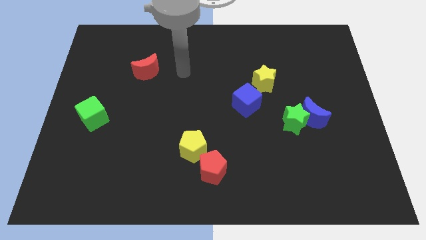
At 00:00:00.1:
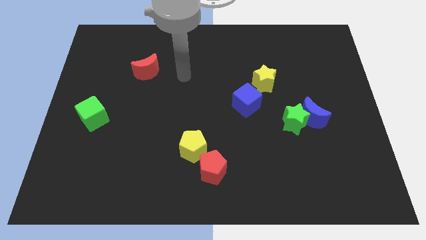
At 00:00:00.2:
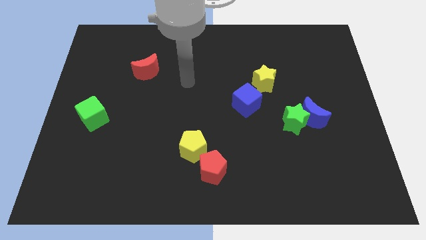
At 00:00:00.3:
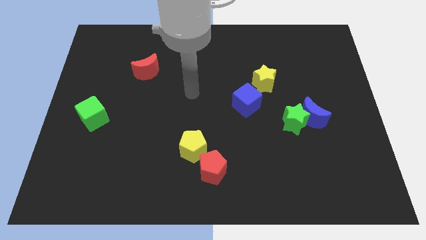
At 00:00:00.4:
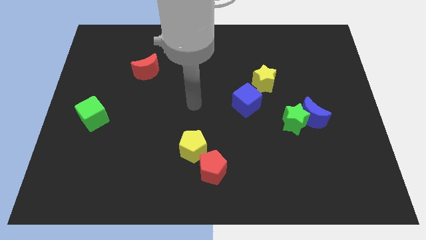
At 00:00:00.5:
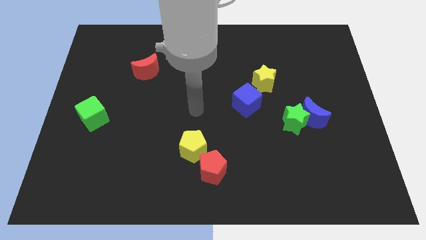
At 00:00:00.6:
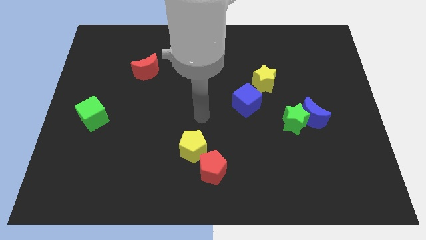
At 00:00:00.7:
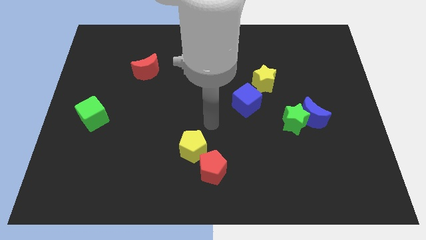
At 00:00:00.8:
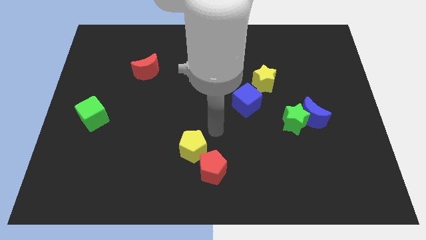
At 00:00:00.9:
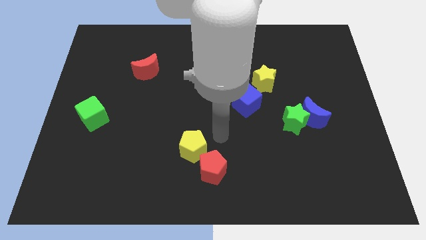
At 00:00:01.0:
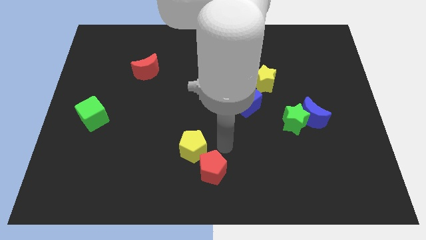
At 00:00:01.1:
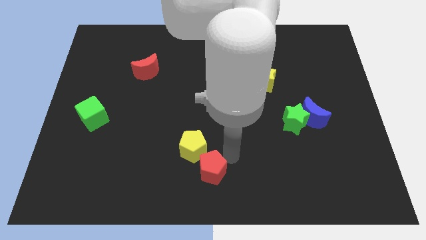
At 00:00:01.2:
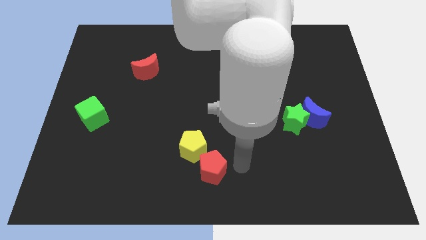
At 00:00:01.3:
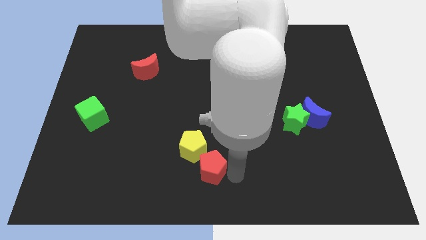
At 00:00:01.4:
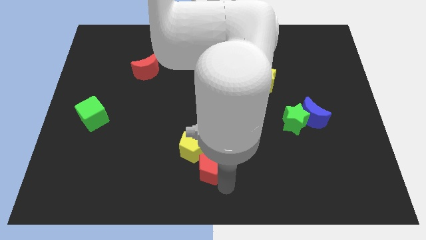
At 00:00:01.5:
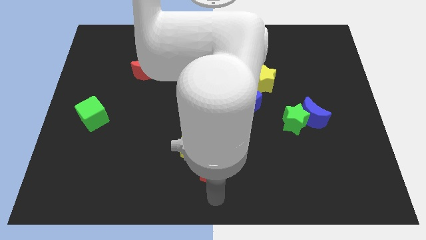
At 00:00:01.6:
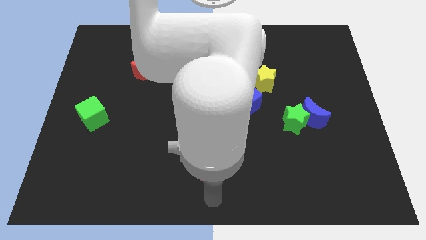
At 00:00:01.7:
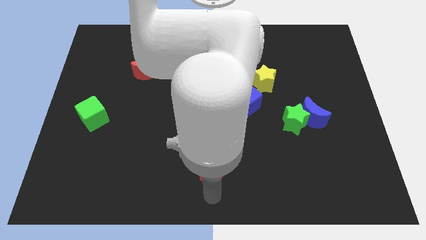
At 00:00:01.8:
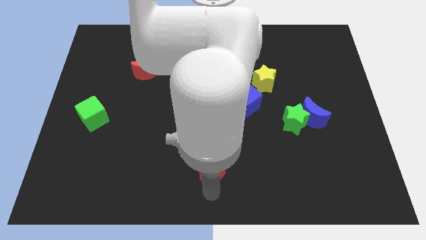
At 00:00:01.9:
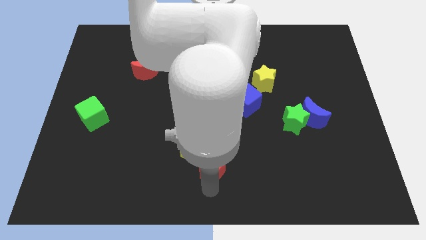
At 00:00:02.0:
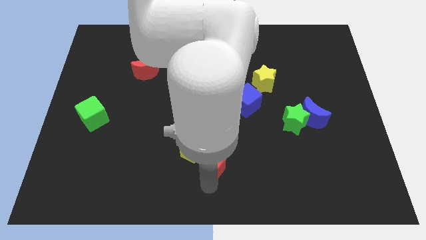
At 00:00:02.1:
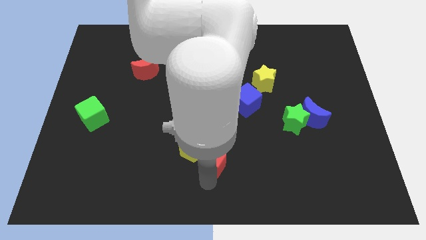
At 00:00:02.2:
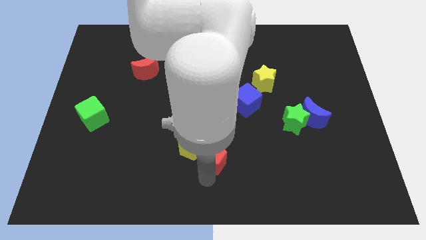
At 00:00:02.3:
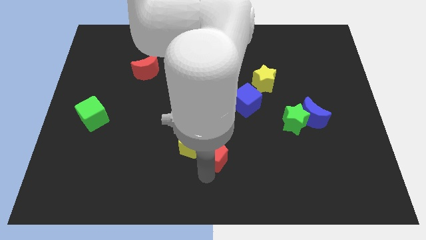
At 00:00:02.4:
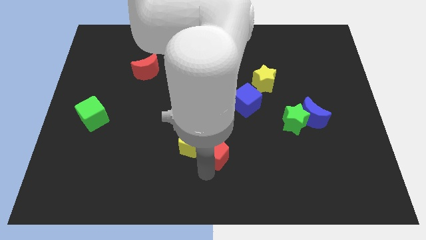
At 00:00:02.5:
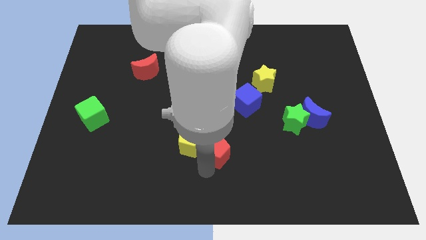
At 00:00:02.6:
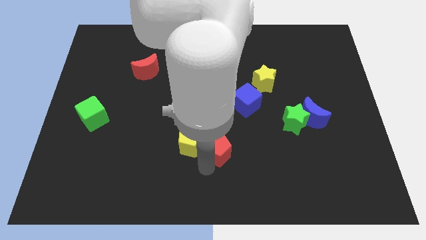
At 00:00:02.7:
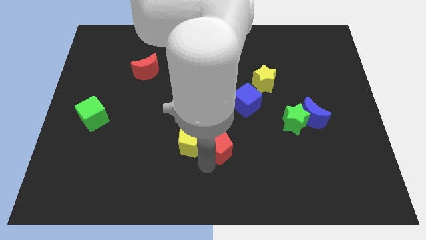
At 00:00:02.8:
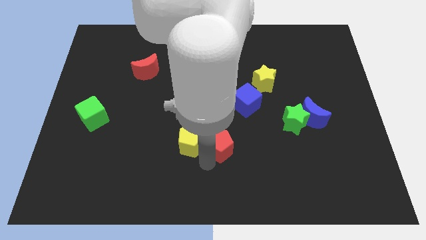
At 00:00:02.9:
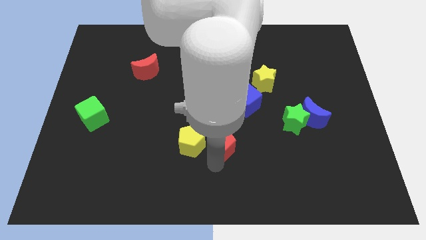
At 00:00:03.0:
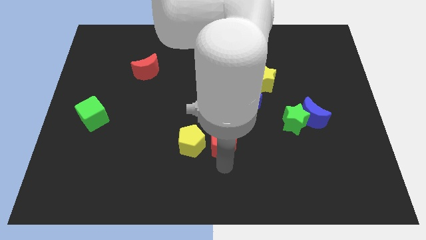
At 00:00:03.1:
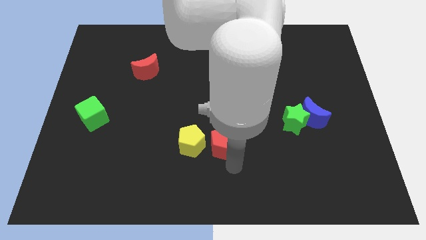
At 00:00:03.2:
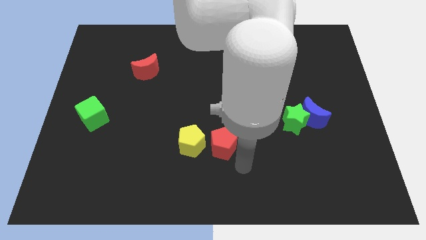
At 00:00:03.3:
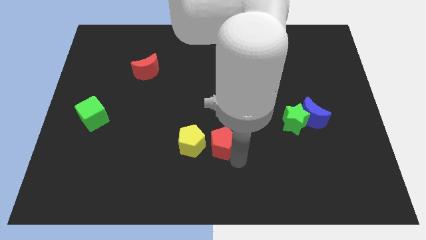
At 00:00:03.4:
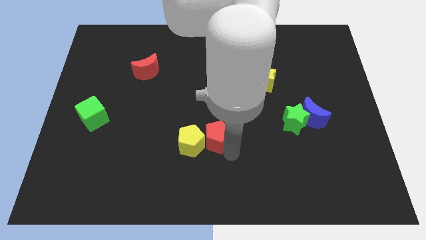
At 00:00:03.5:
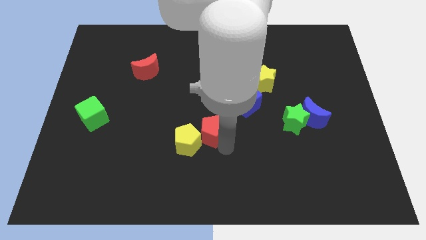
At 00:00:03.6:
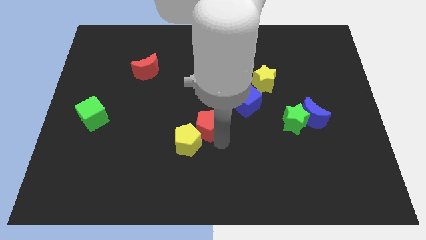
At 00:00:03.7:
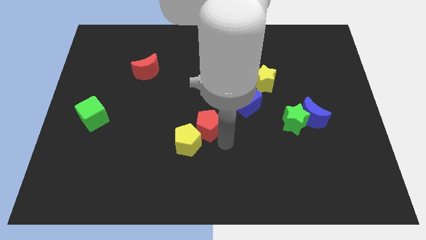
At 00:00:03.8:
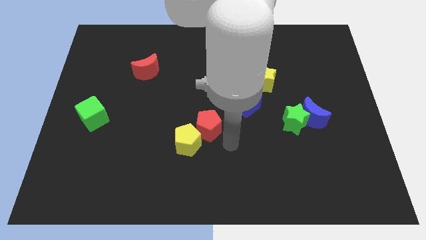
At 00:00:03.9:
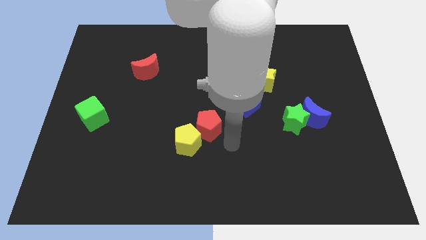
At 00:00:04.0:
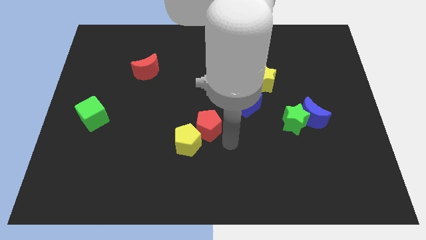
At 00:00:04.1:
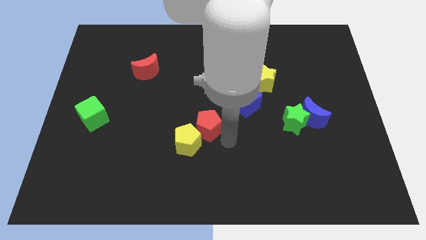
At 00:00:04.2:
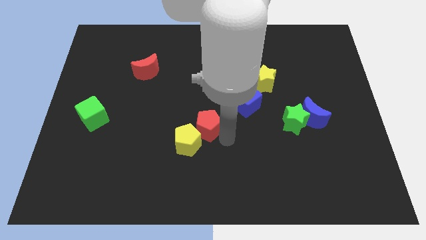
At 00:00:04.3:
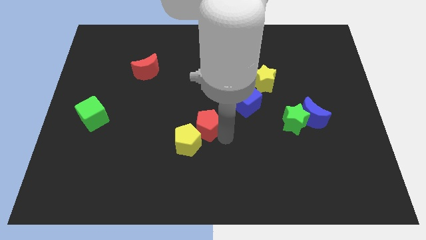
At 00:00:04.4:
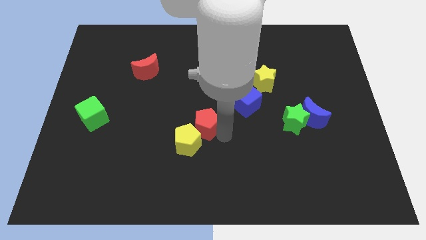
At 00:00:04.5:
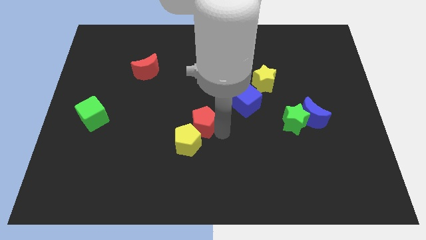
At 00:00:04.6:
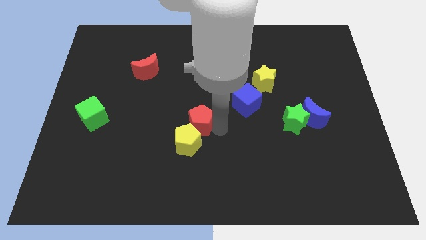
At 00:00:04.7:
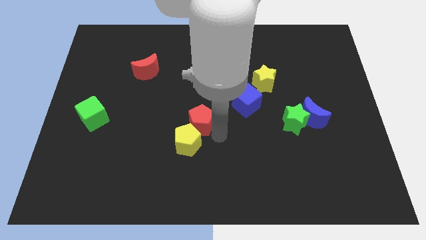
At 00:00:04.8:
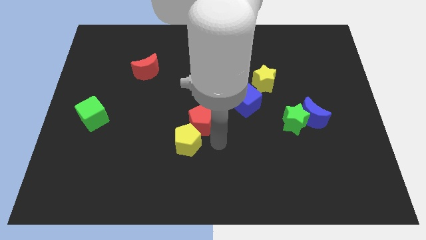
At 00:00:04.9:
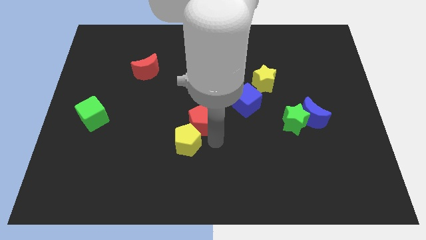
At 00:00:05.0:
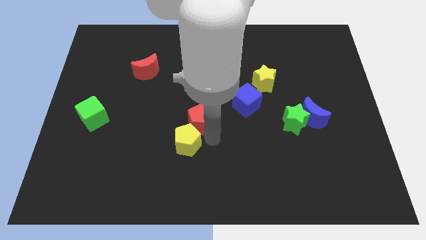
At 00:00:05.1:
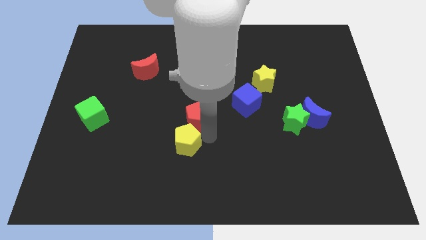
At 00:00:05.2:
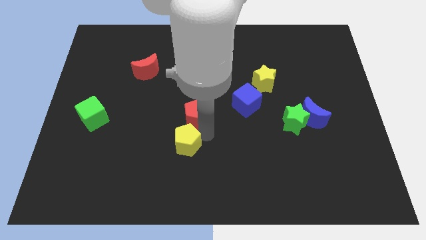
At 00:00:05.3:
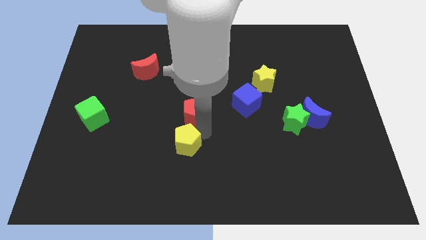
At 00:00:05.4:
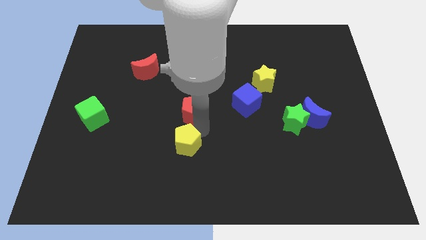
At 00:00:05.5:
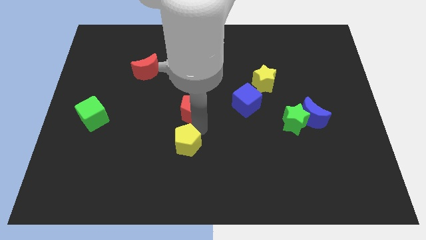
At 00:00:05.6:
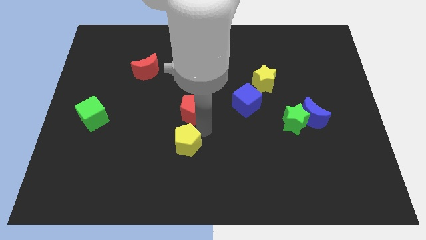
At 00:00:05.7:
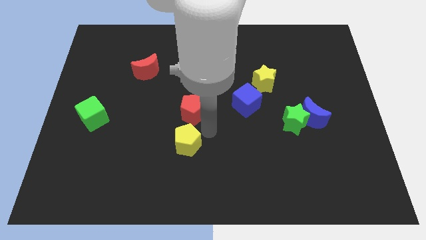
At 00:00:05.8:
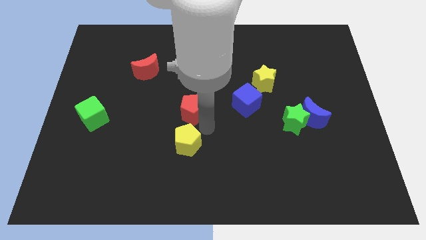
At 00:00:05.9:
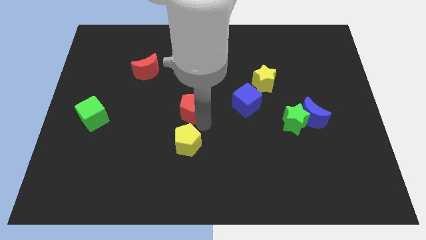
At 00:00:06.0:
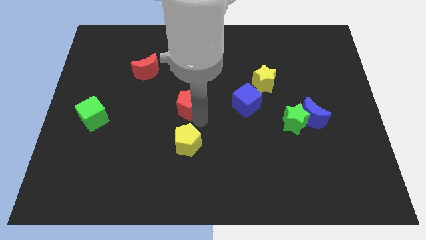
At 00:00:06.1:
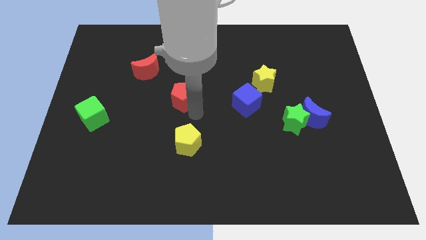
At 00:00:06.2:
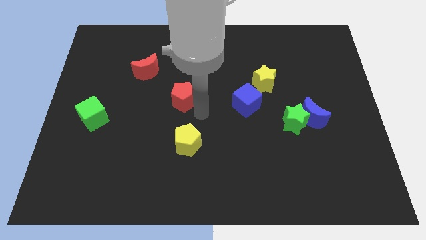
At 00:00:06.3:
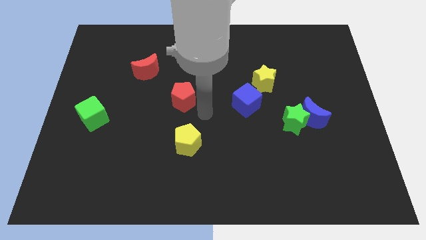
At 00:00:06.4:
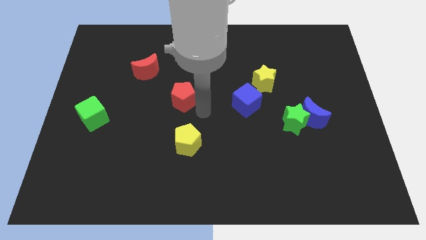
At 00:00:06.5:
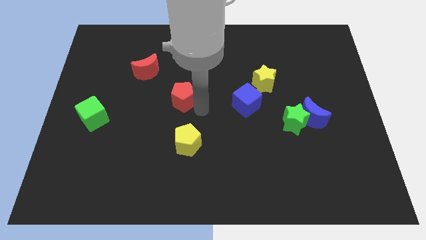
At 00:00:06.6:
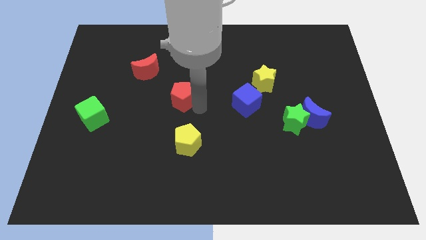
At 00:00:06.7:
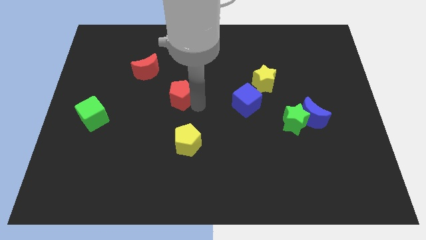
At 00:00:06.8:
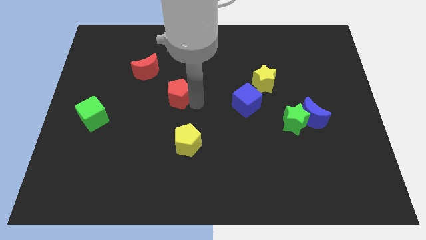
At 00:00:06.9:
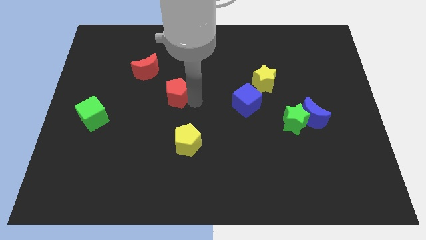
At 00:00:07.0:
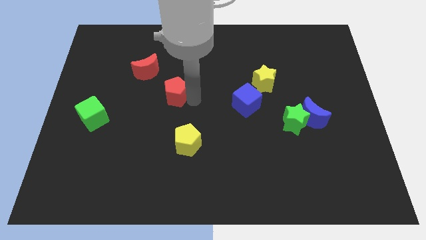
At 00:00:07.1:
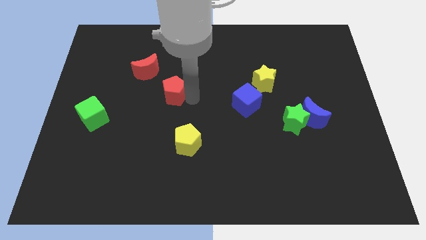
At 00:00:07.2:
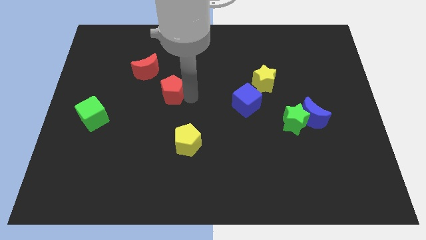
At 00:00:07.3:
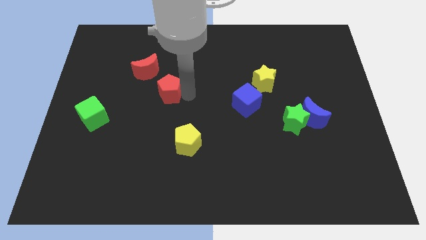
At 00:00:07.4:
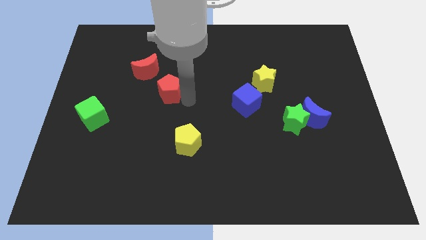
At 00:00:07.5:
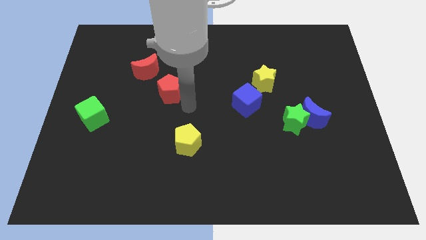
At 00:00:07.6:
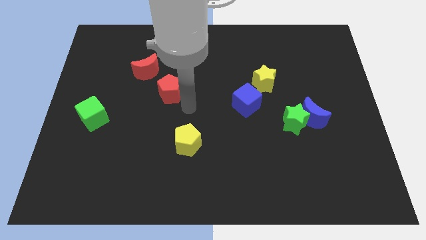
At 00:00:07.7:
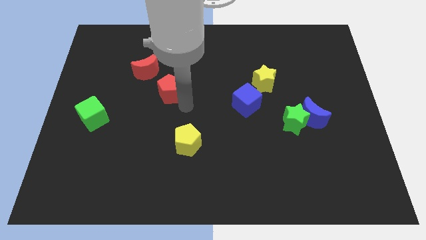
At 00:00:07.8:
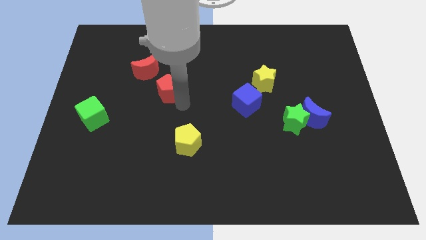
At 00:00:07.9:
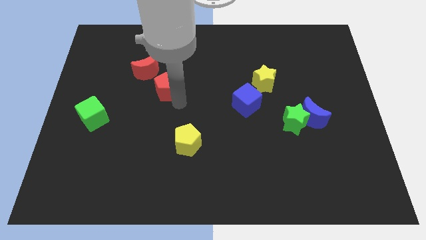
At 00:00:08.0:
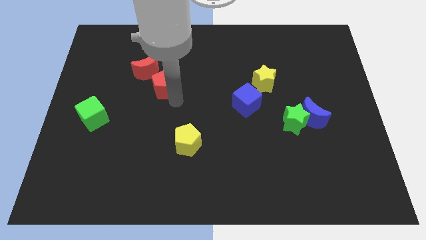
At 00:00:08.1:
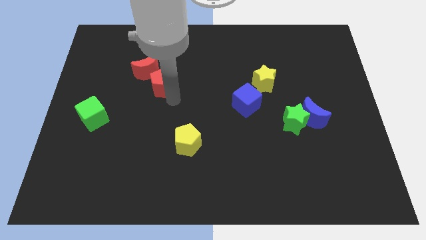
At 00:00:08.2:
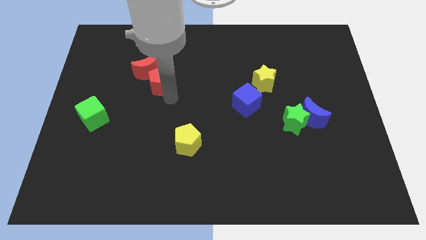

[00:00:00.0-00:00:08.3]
put the red pentagon next to the red moon
